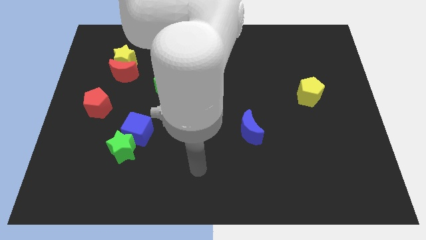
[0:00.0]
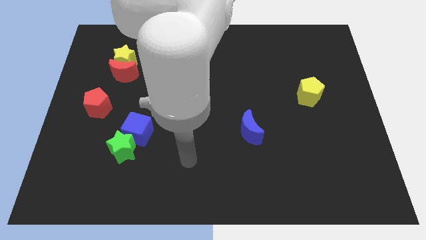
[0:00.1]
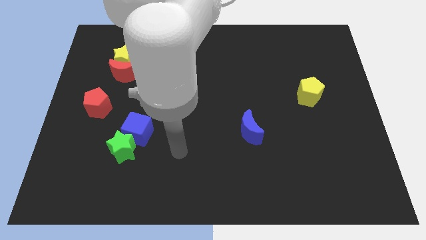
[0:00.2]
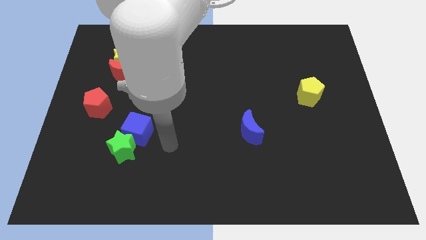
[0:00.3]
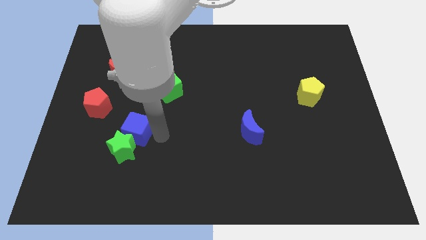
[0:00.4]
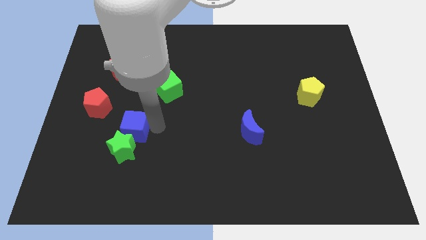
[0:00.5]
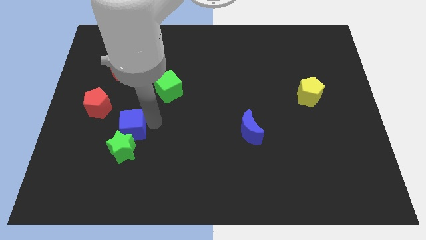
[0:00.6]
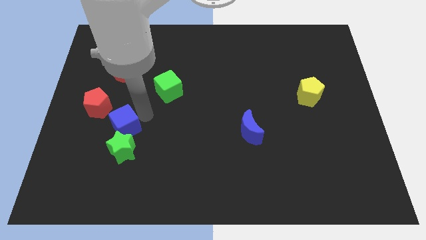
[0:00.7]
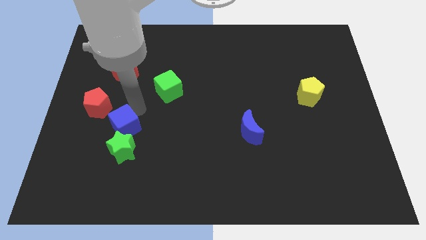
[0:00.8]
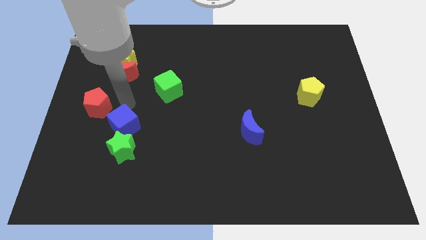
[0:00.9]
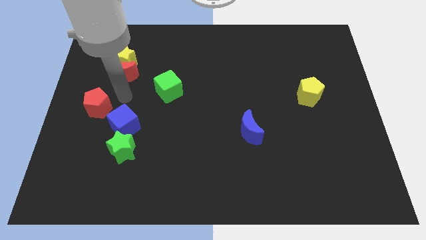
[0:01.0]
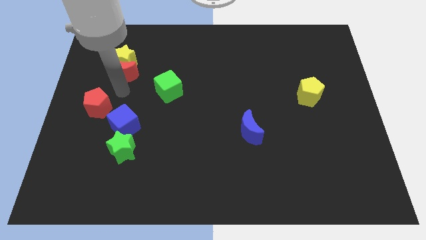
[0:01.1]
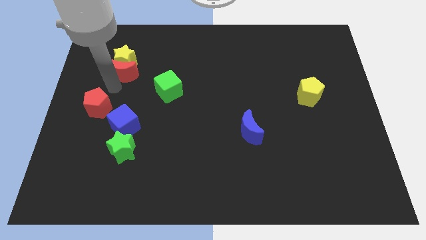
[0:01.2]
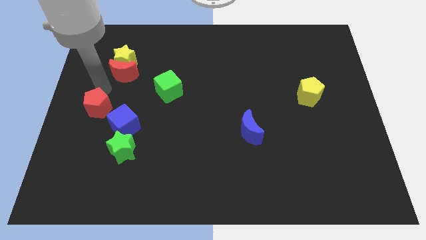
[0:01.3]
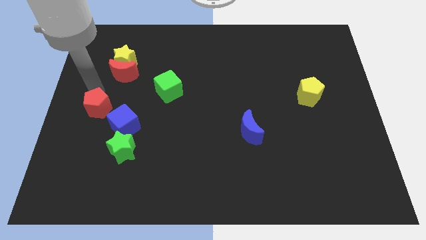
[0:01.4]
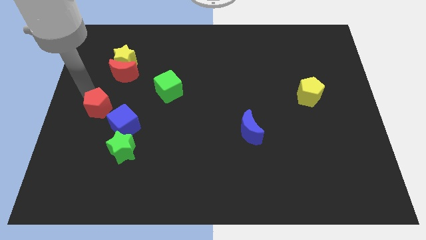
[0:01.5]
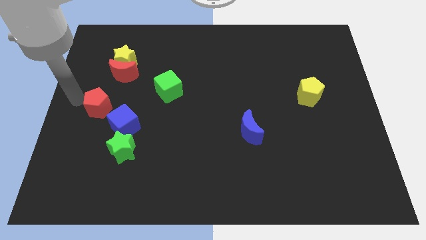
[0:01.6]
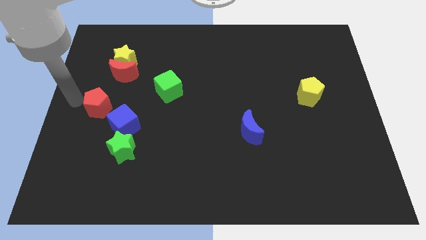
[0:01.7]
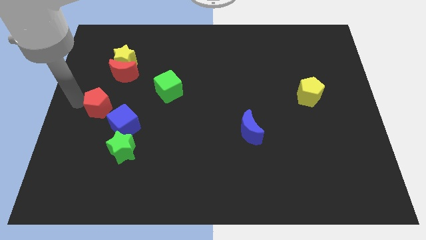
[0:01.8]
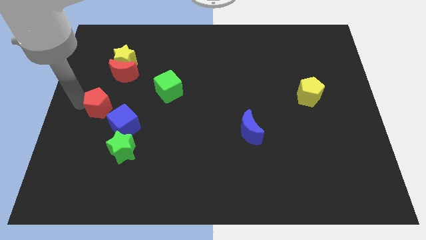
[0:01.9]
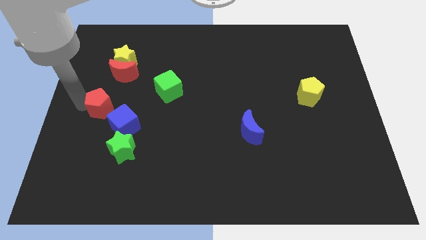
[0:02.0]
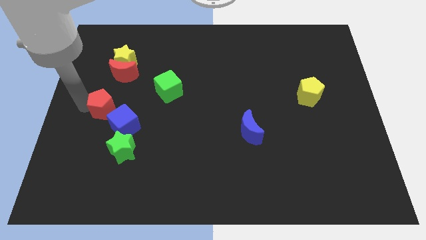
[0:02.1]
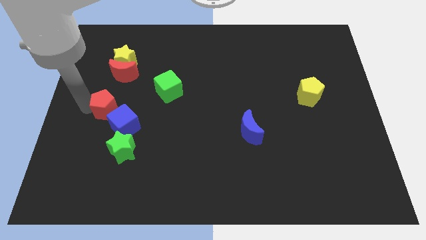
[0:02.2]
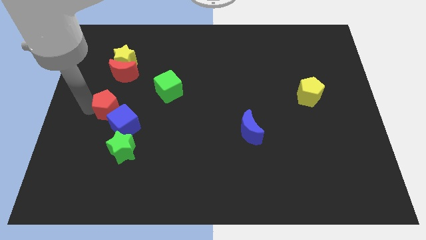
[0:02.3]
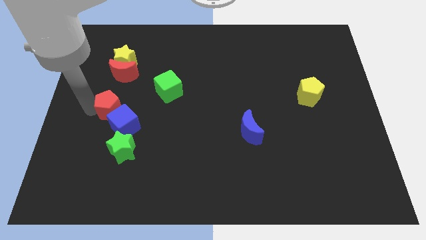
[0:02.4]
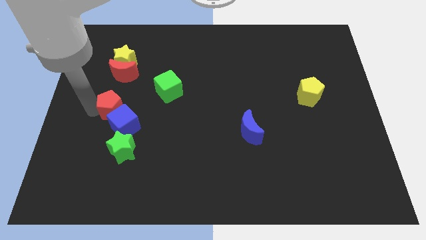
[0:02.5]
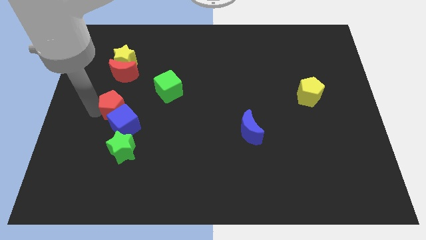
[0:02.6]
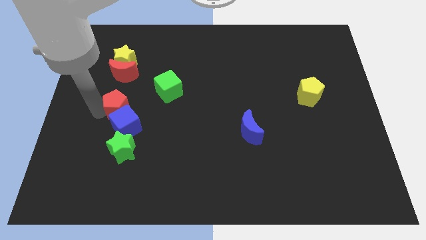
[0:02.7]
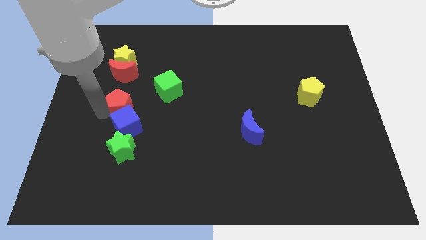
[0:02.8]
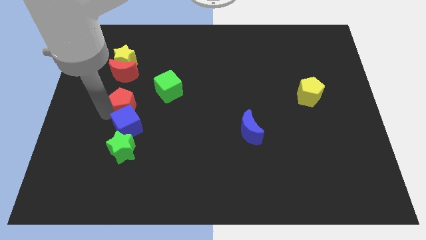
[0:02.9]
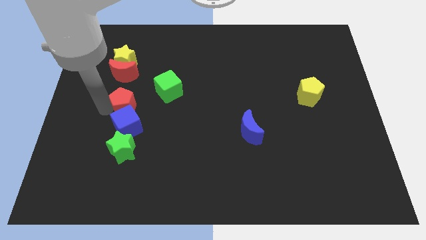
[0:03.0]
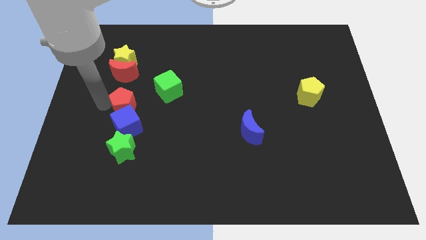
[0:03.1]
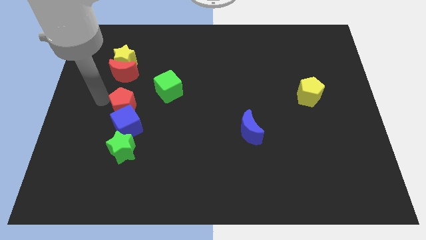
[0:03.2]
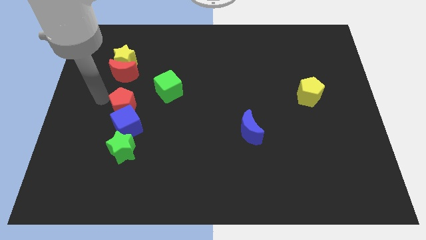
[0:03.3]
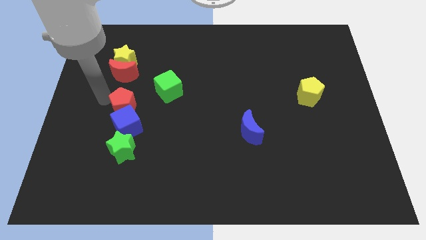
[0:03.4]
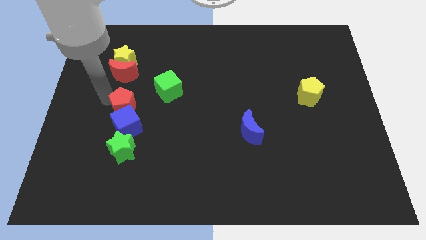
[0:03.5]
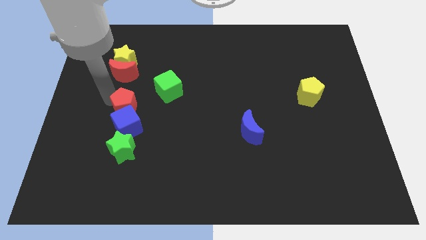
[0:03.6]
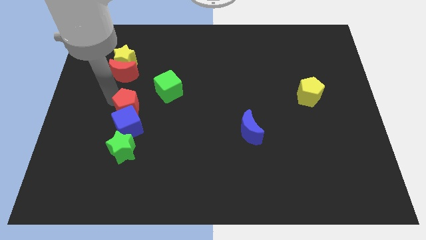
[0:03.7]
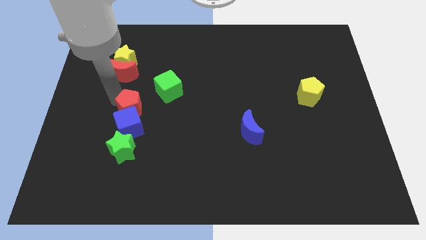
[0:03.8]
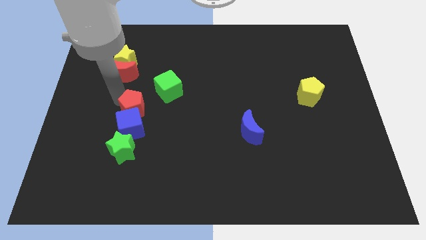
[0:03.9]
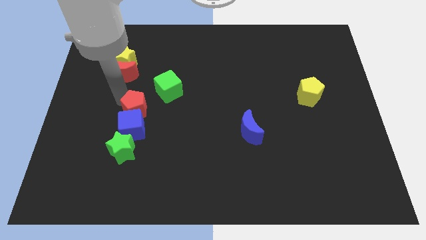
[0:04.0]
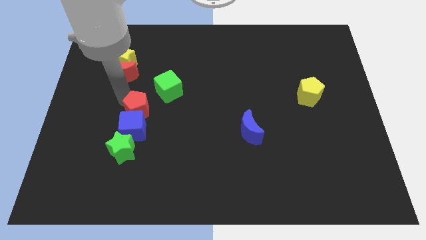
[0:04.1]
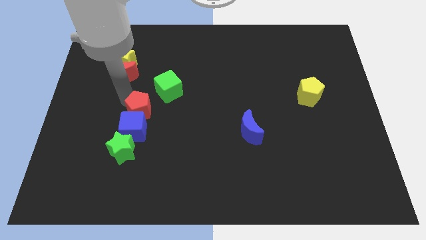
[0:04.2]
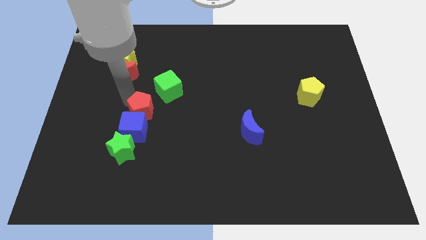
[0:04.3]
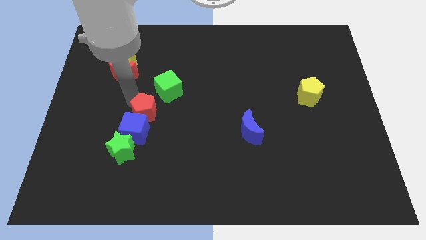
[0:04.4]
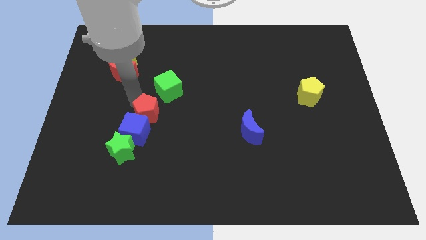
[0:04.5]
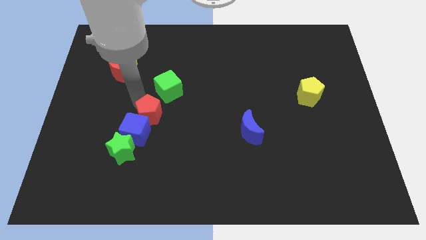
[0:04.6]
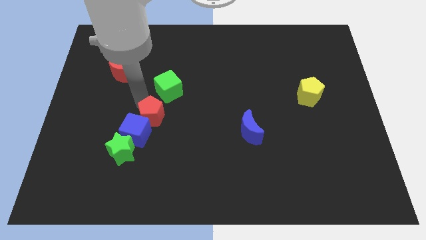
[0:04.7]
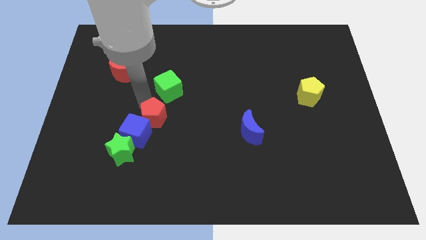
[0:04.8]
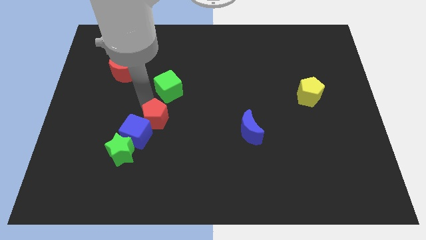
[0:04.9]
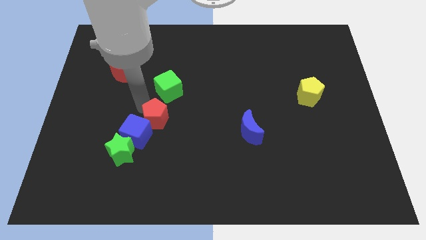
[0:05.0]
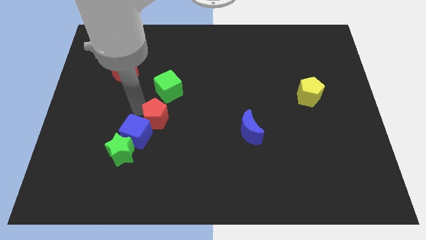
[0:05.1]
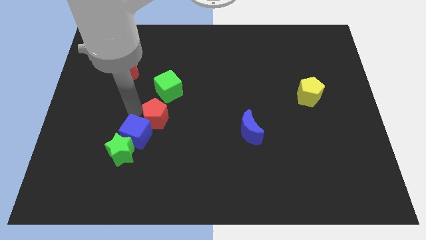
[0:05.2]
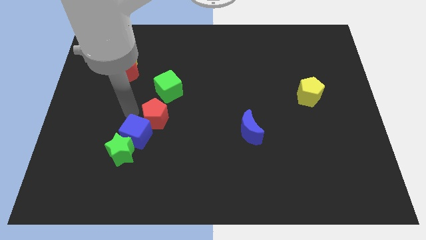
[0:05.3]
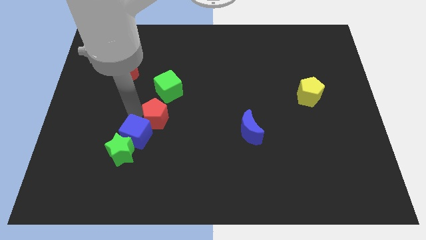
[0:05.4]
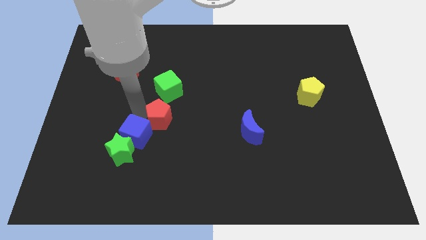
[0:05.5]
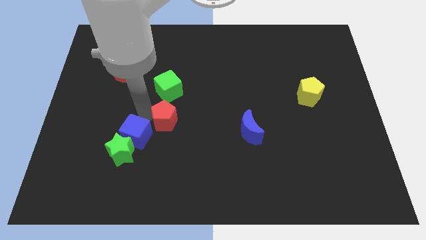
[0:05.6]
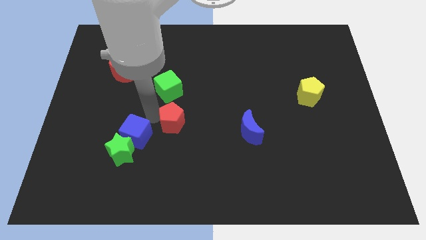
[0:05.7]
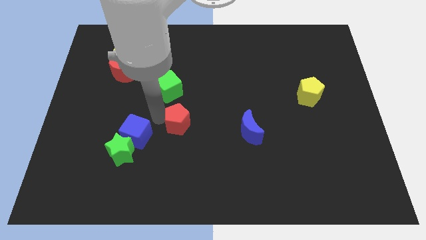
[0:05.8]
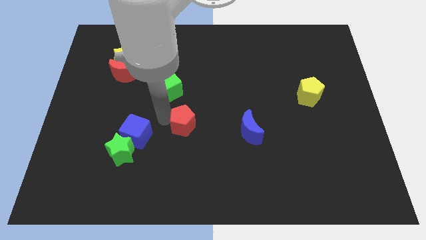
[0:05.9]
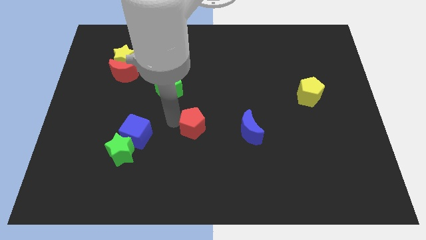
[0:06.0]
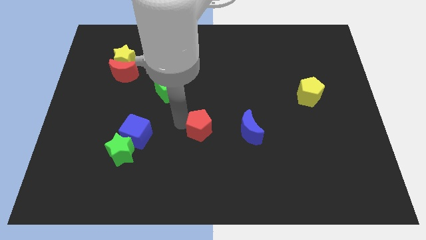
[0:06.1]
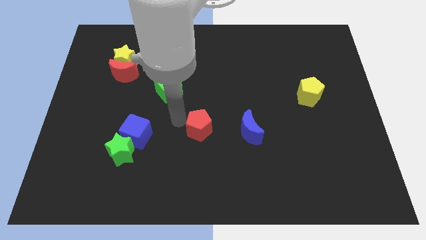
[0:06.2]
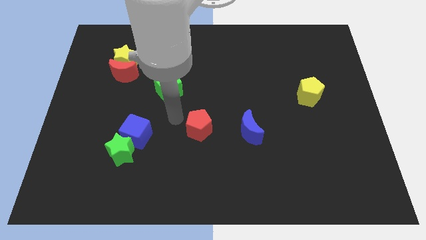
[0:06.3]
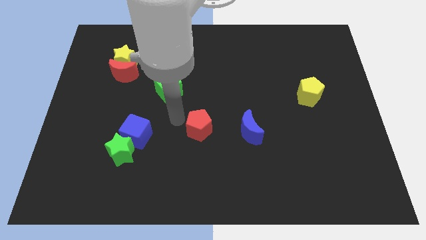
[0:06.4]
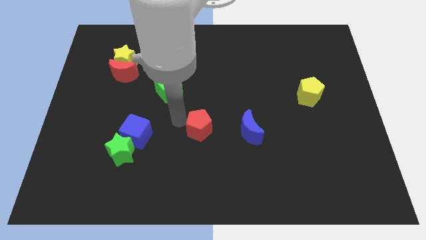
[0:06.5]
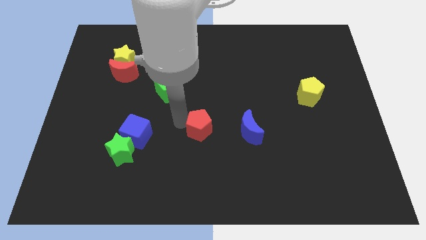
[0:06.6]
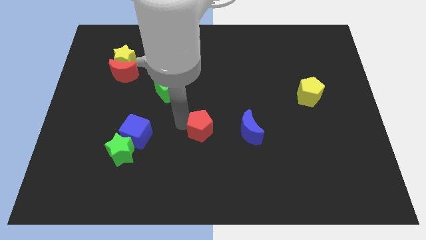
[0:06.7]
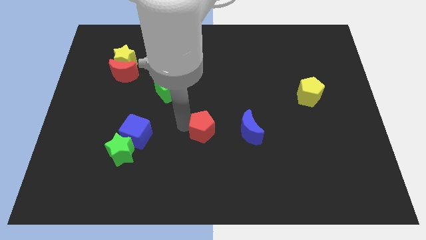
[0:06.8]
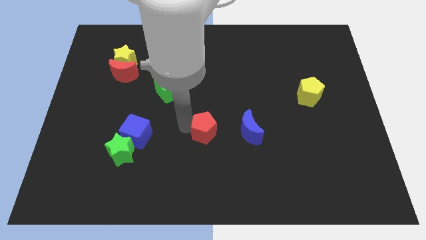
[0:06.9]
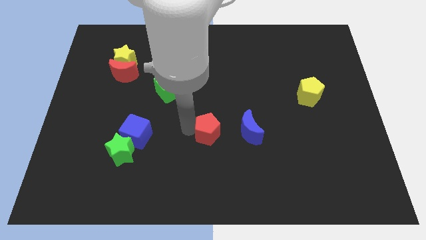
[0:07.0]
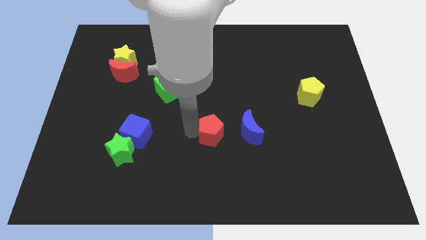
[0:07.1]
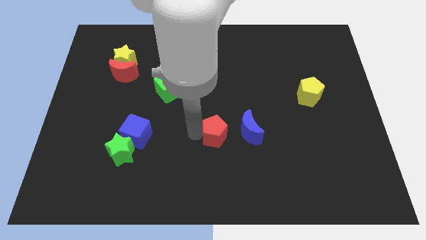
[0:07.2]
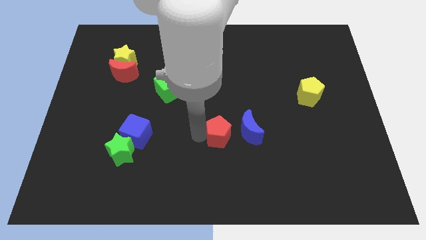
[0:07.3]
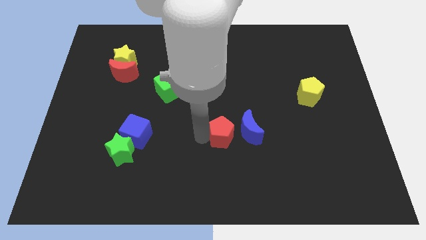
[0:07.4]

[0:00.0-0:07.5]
push the red pentagon next to the blue moon
